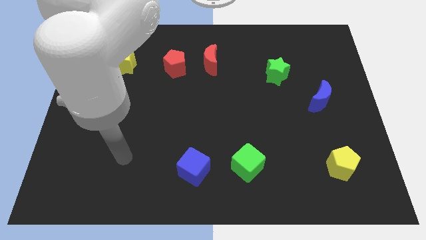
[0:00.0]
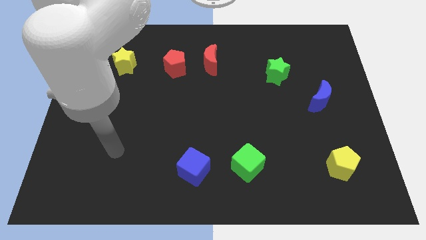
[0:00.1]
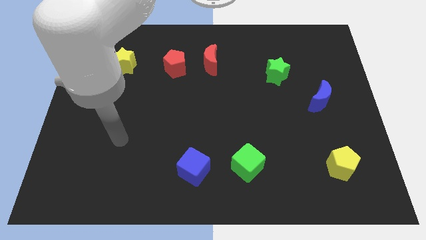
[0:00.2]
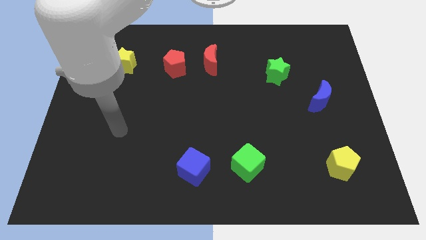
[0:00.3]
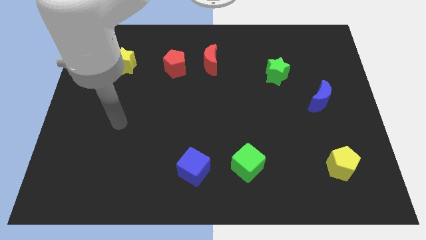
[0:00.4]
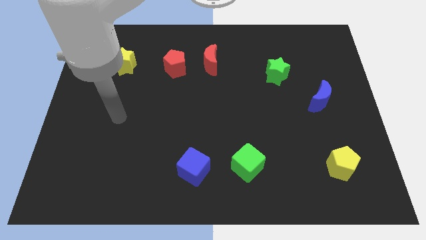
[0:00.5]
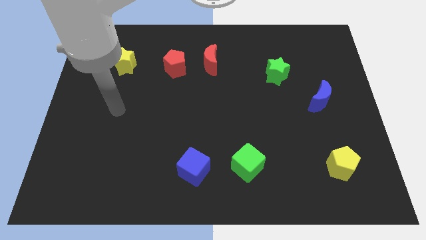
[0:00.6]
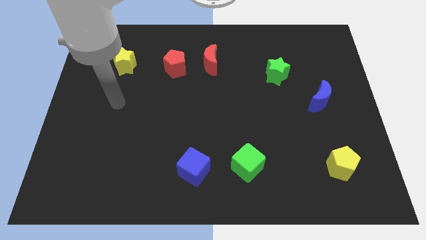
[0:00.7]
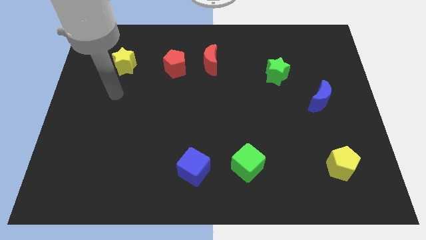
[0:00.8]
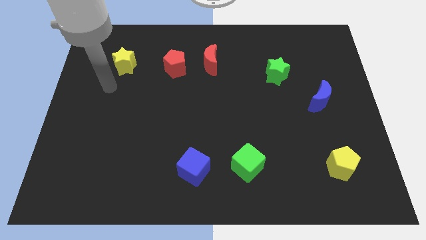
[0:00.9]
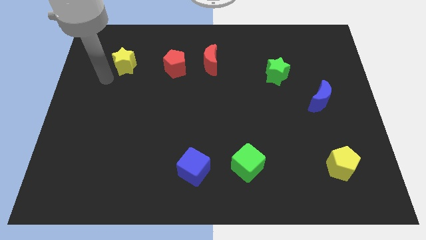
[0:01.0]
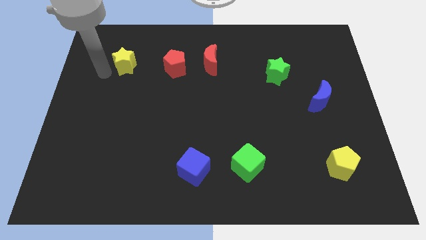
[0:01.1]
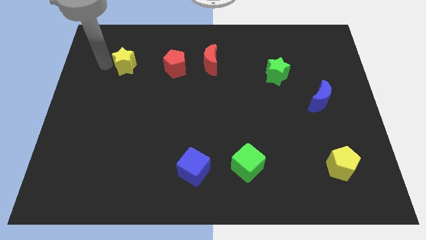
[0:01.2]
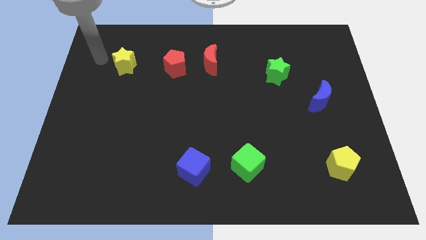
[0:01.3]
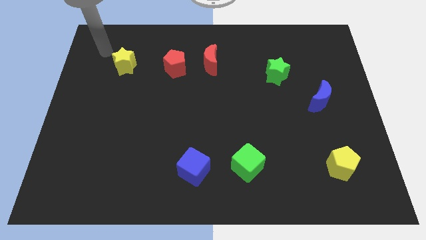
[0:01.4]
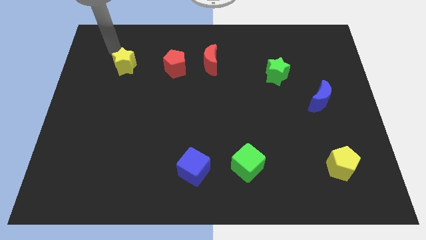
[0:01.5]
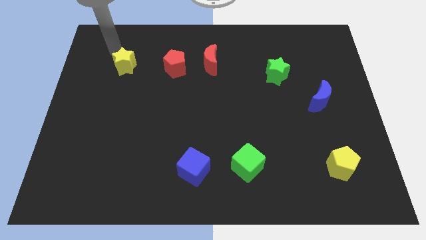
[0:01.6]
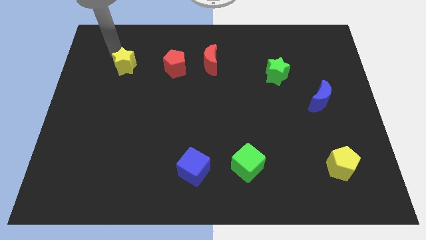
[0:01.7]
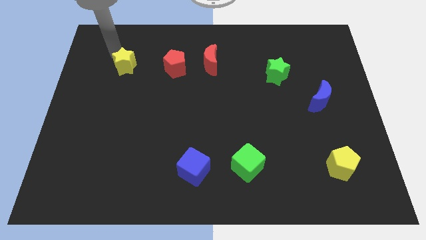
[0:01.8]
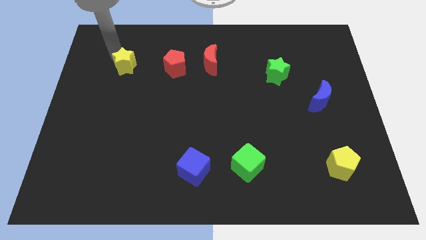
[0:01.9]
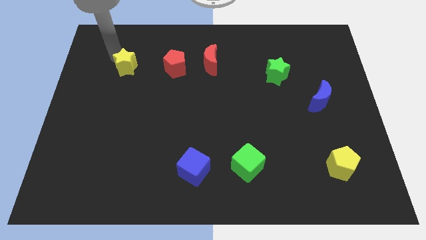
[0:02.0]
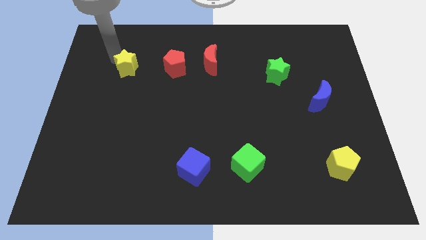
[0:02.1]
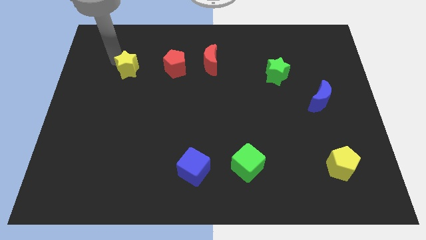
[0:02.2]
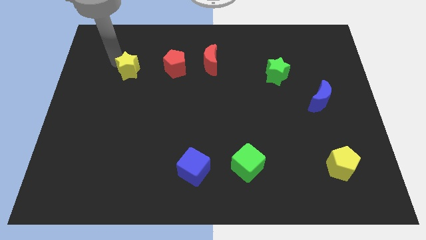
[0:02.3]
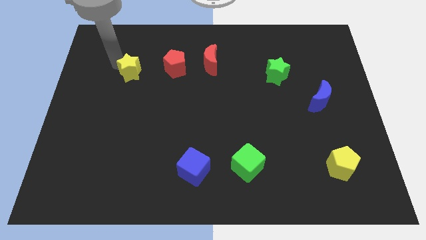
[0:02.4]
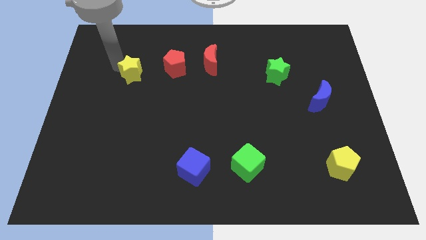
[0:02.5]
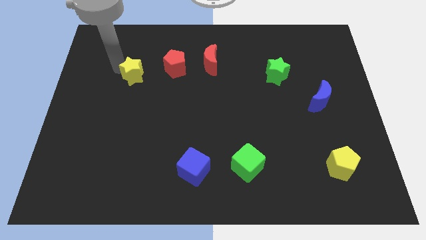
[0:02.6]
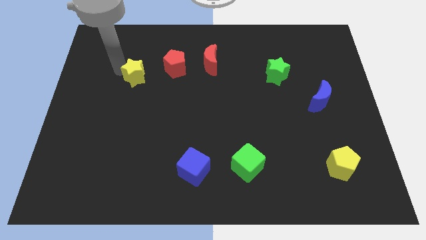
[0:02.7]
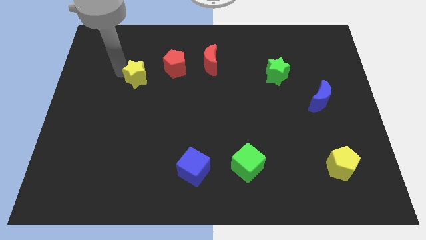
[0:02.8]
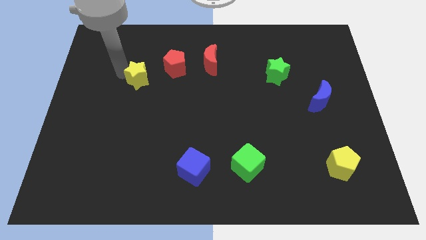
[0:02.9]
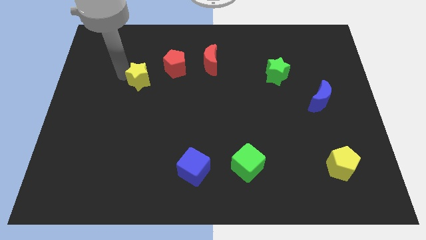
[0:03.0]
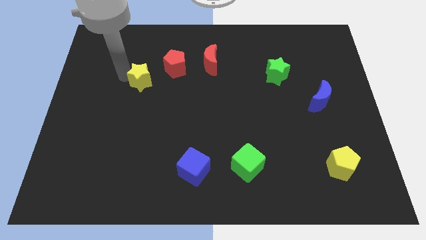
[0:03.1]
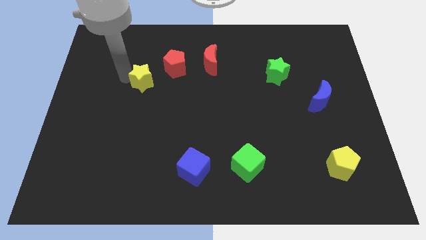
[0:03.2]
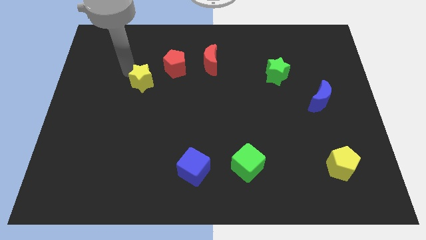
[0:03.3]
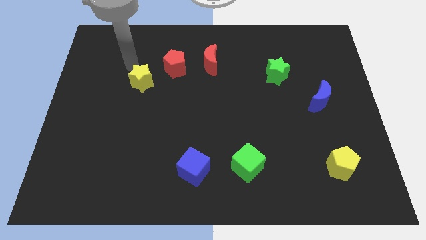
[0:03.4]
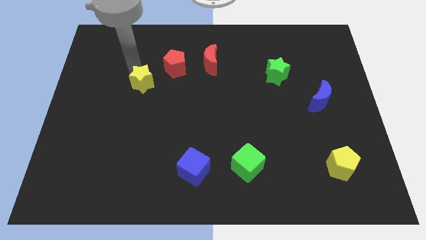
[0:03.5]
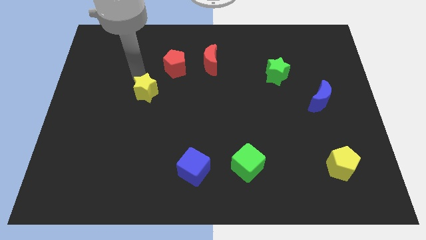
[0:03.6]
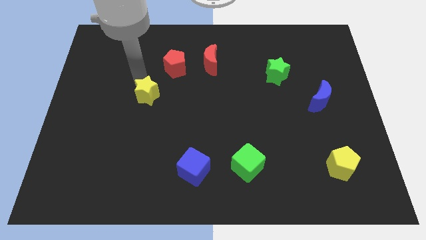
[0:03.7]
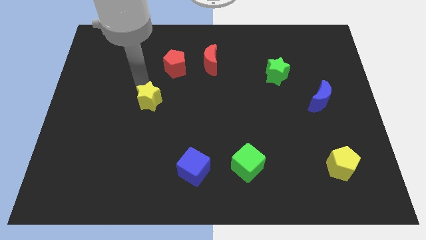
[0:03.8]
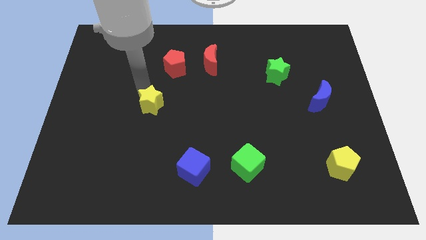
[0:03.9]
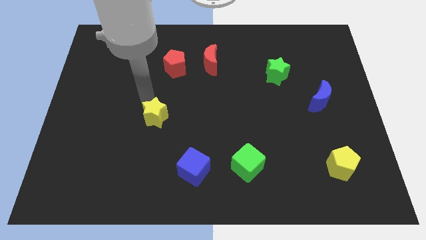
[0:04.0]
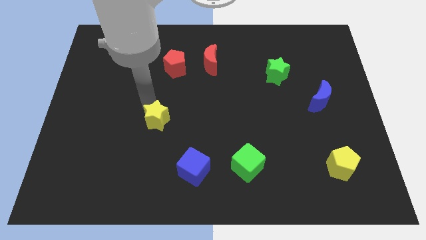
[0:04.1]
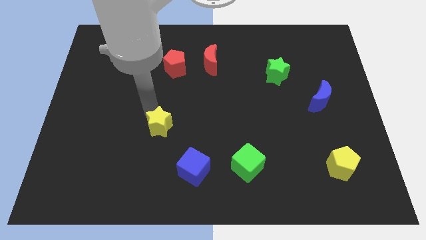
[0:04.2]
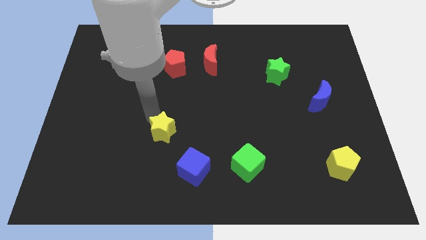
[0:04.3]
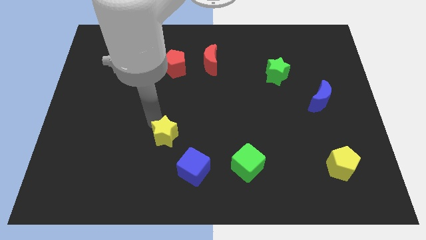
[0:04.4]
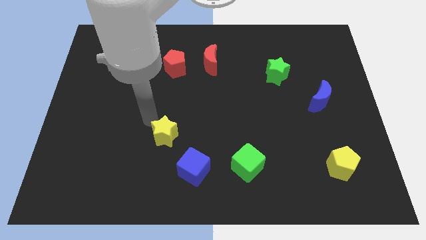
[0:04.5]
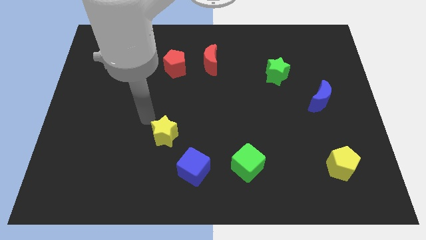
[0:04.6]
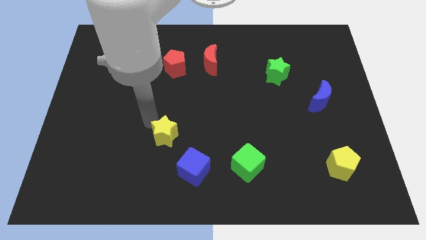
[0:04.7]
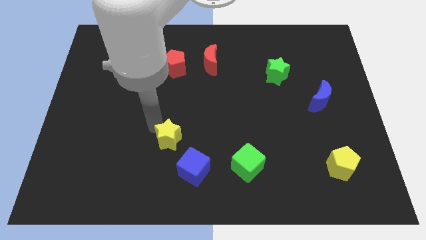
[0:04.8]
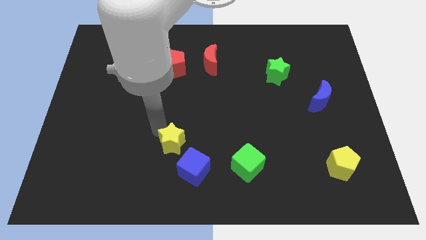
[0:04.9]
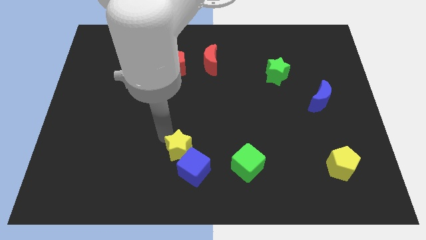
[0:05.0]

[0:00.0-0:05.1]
slide the yellow star next to the blue cube

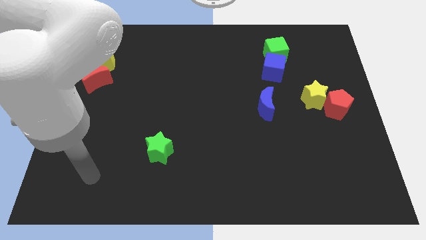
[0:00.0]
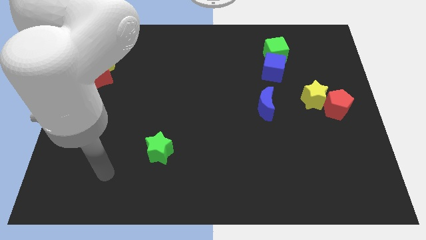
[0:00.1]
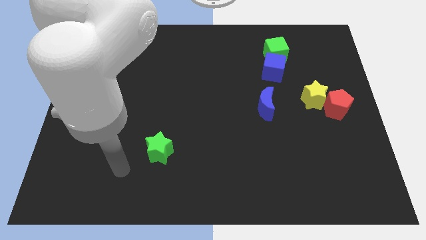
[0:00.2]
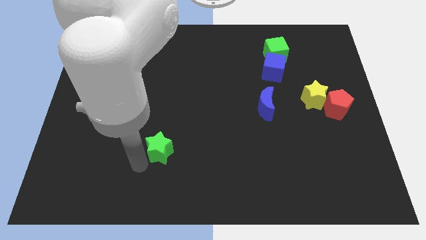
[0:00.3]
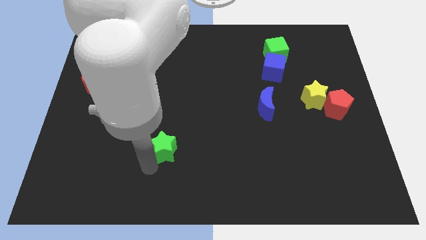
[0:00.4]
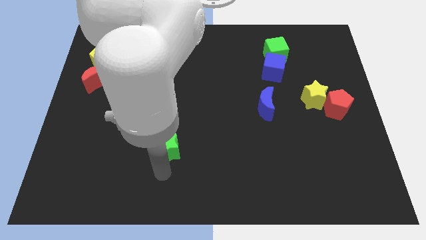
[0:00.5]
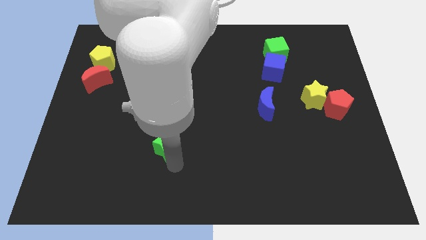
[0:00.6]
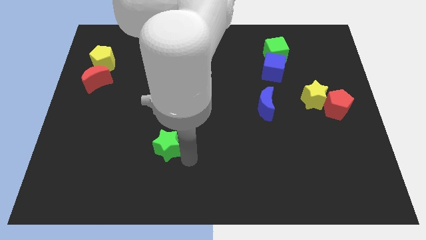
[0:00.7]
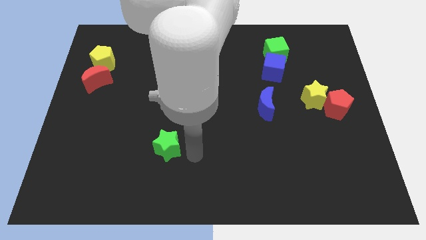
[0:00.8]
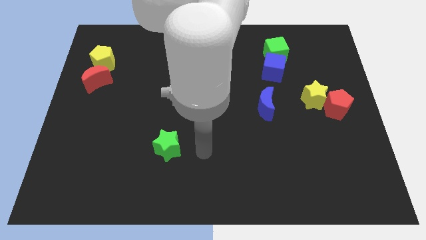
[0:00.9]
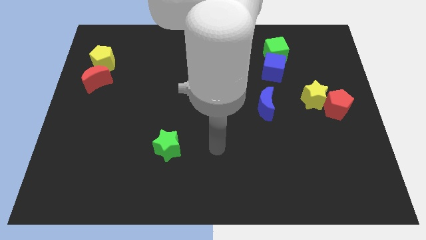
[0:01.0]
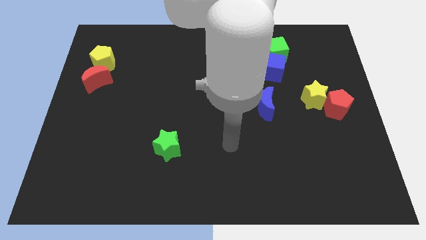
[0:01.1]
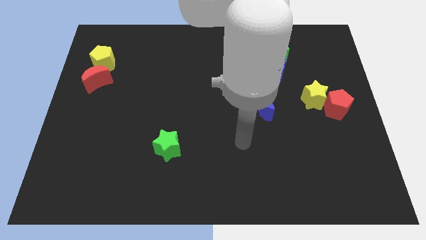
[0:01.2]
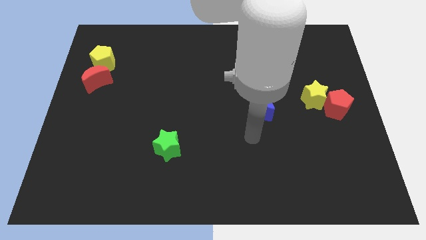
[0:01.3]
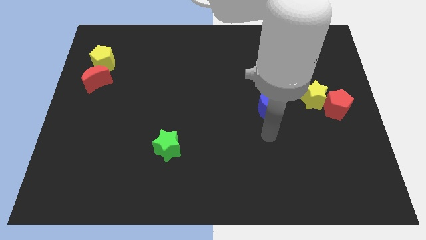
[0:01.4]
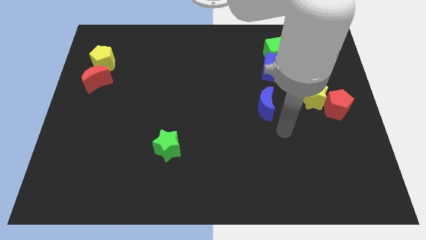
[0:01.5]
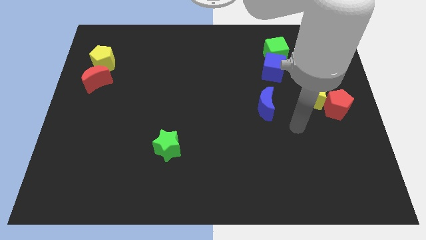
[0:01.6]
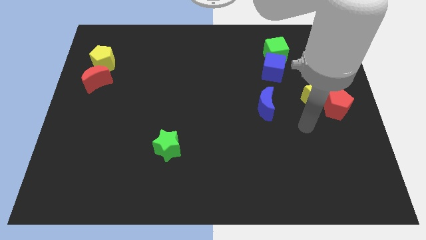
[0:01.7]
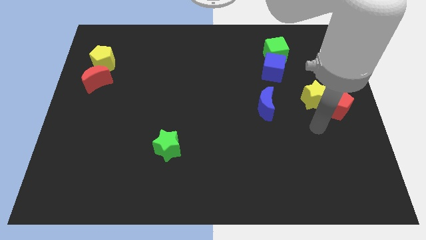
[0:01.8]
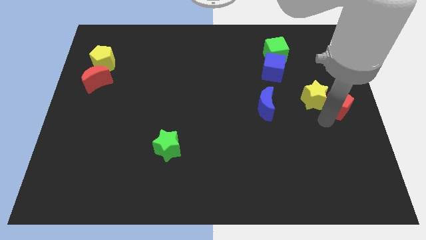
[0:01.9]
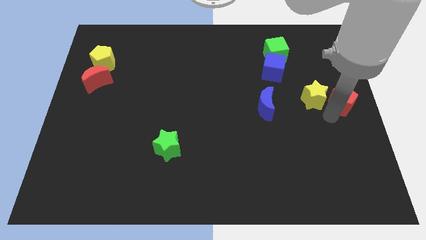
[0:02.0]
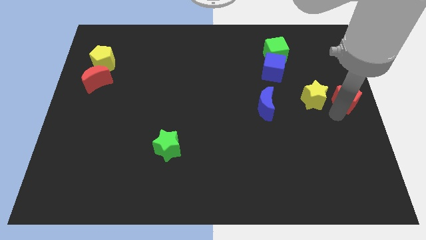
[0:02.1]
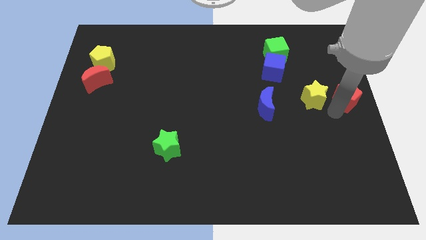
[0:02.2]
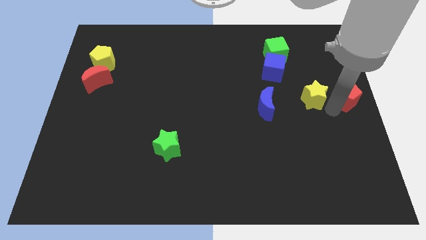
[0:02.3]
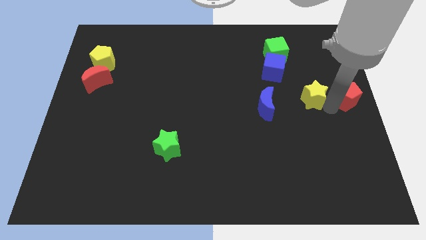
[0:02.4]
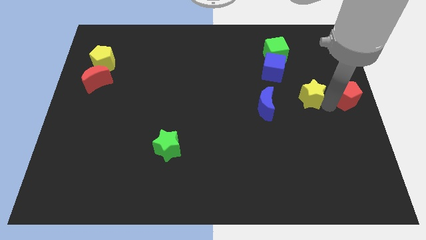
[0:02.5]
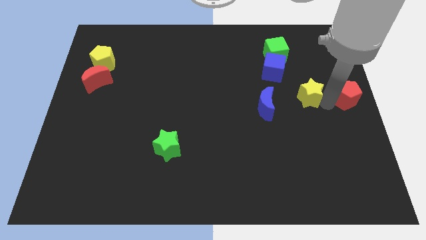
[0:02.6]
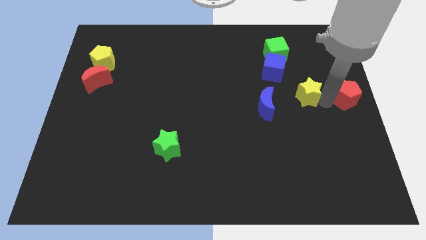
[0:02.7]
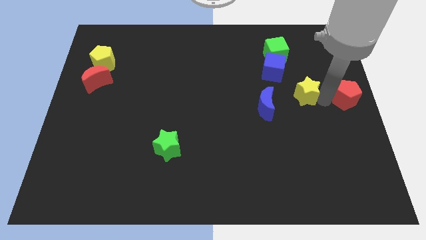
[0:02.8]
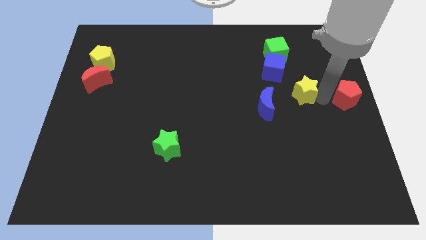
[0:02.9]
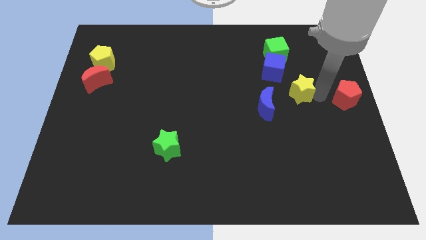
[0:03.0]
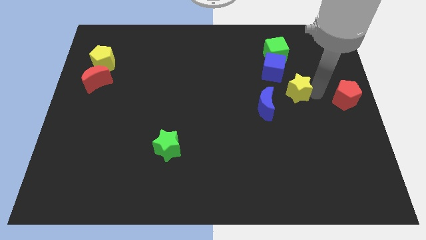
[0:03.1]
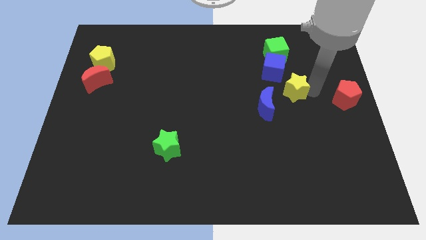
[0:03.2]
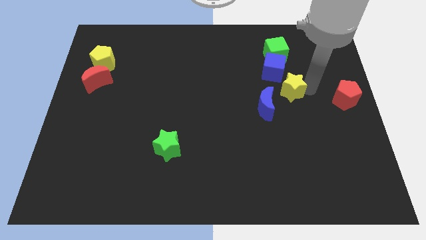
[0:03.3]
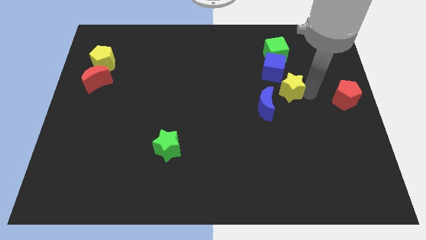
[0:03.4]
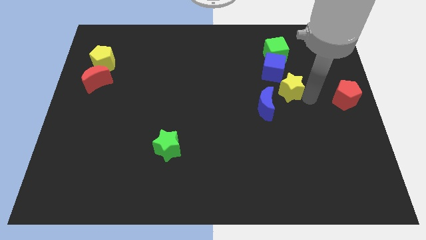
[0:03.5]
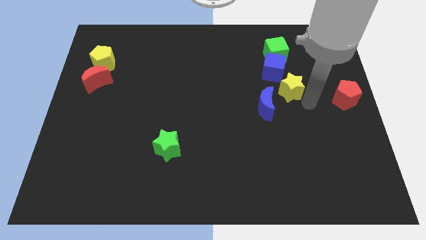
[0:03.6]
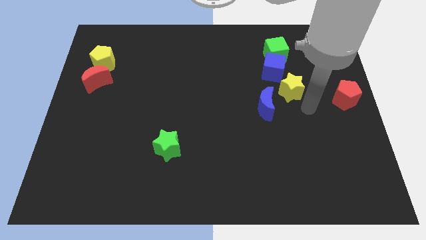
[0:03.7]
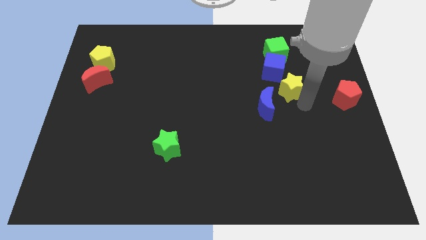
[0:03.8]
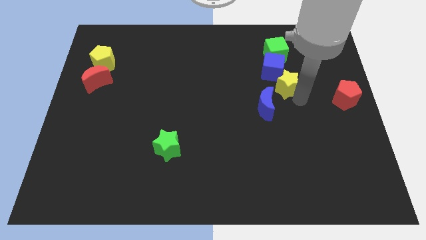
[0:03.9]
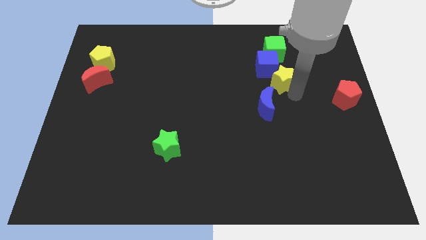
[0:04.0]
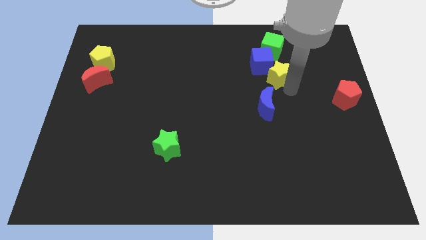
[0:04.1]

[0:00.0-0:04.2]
put the yellow star towards the blue cube
